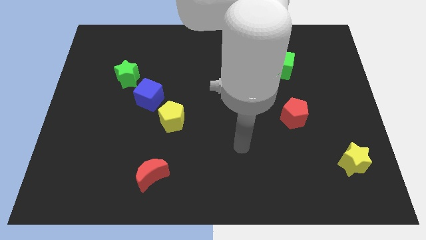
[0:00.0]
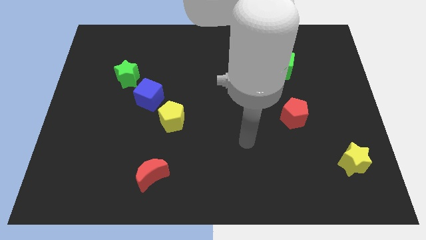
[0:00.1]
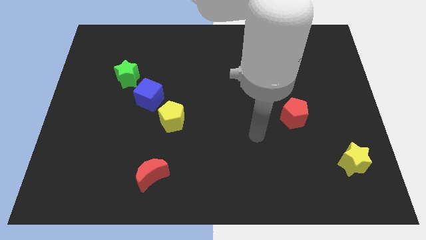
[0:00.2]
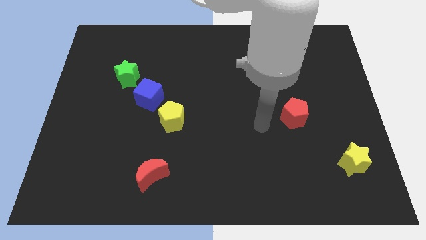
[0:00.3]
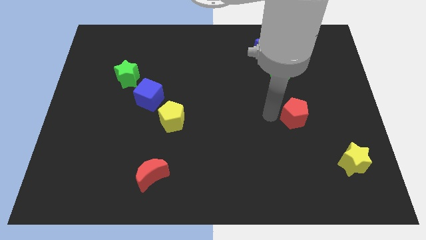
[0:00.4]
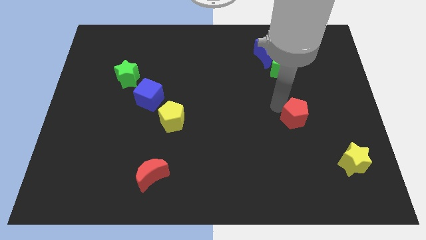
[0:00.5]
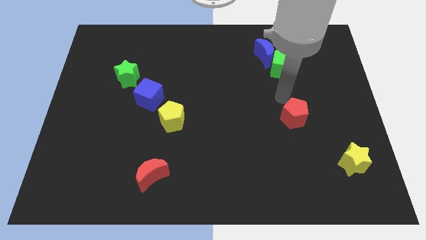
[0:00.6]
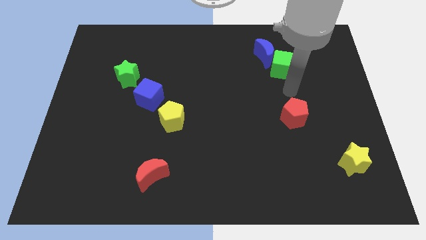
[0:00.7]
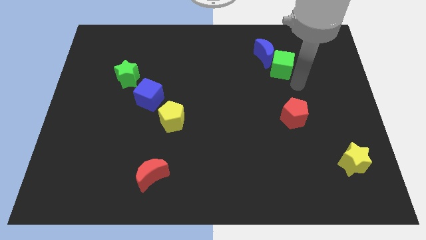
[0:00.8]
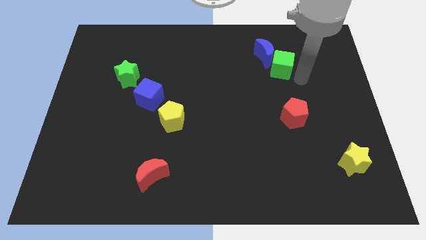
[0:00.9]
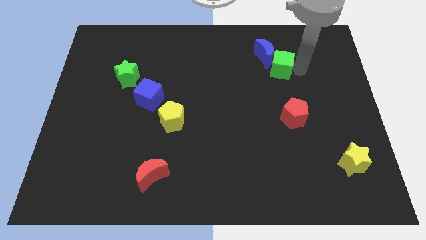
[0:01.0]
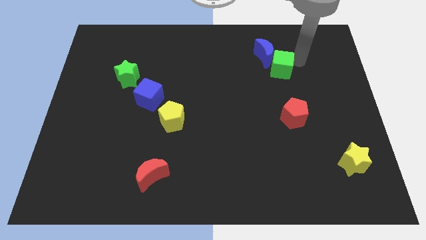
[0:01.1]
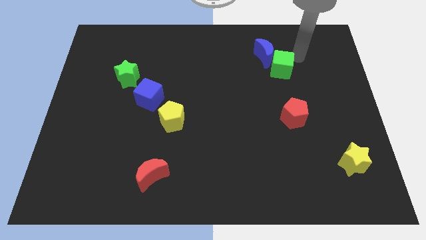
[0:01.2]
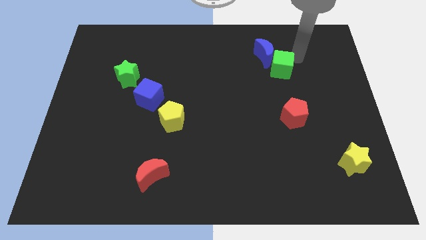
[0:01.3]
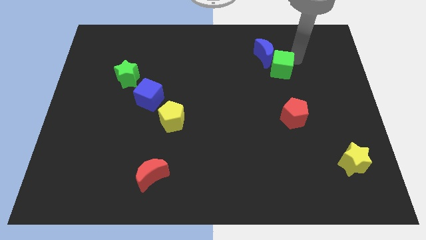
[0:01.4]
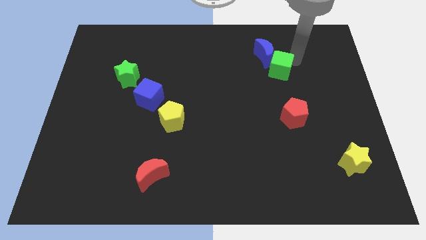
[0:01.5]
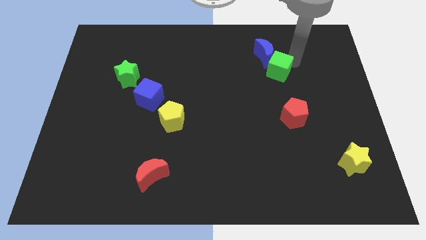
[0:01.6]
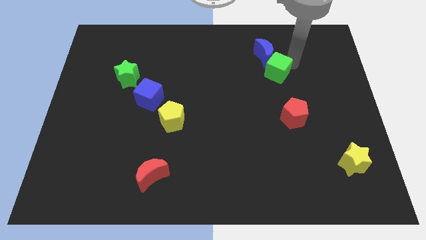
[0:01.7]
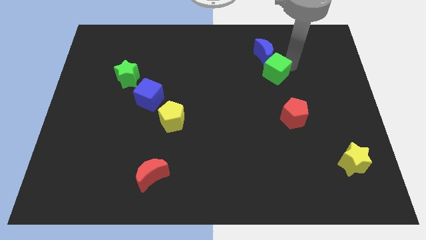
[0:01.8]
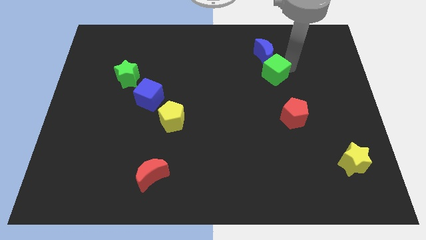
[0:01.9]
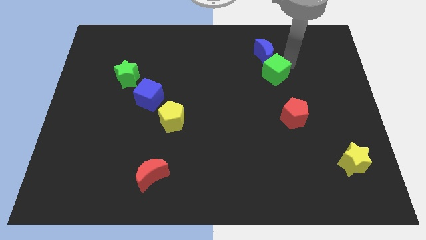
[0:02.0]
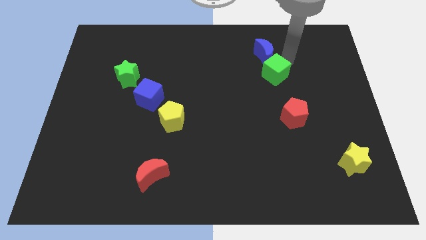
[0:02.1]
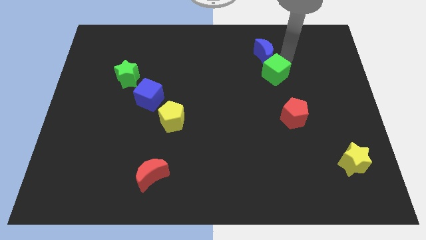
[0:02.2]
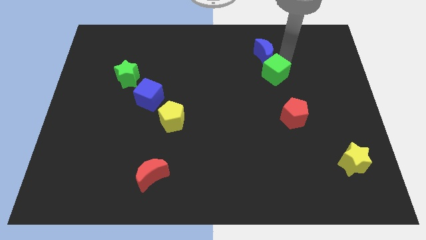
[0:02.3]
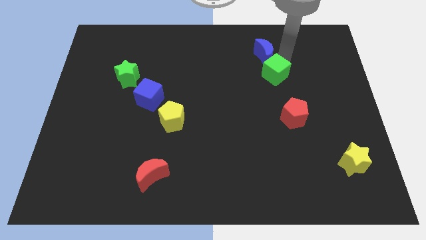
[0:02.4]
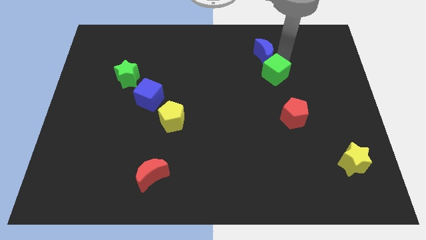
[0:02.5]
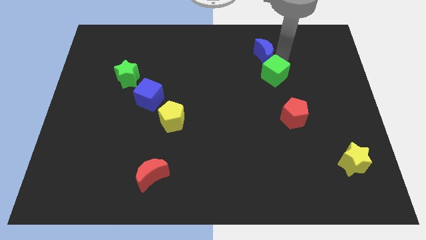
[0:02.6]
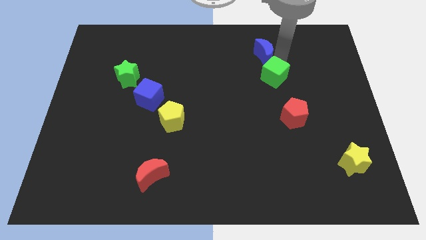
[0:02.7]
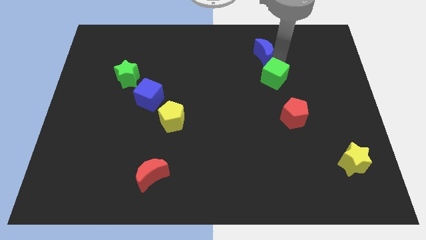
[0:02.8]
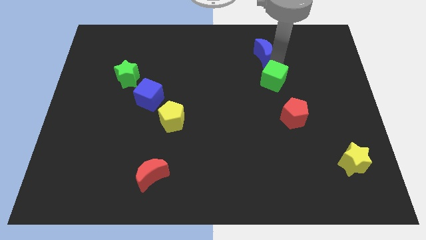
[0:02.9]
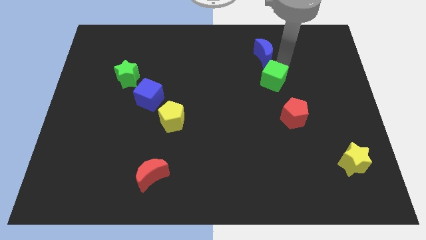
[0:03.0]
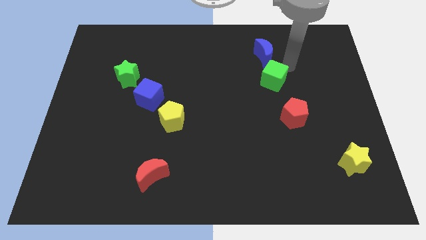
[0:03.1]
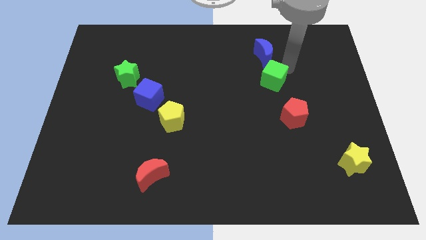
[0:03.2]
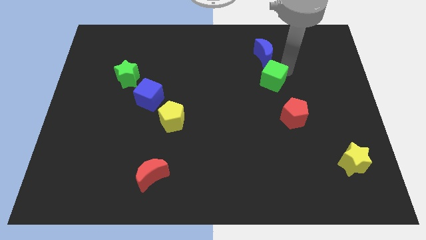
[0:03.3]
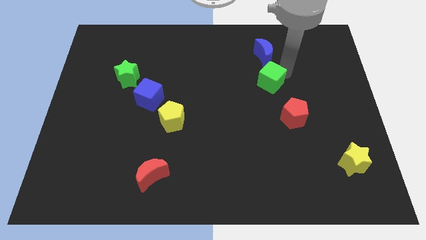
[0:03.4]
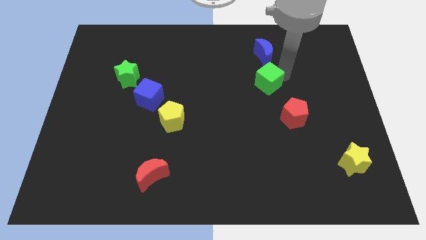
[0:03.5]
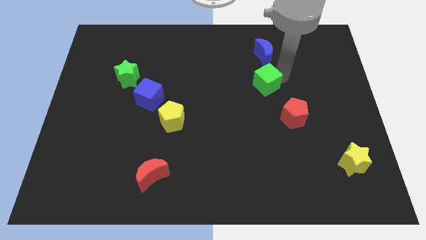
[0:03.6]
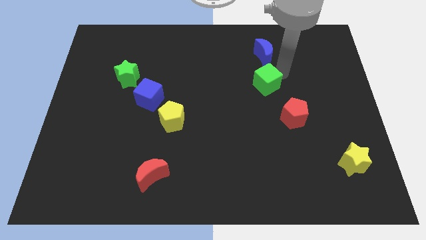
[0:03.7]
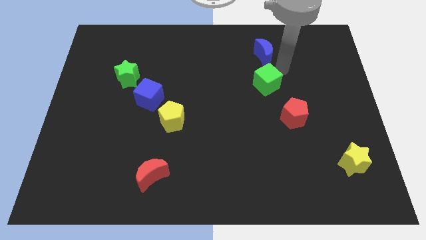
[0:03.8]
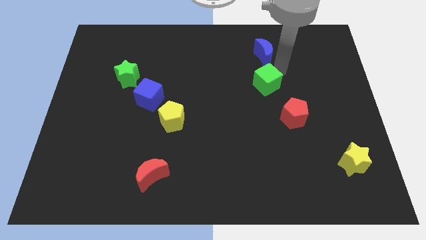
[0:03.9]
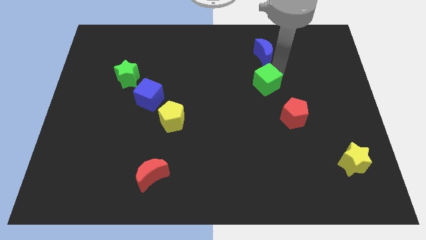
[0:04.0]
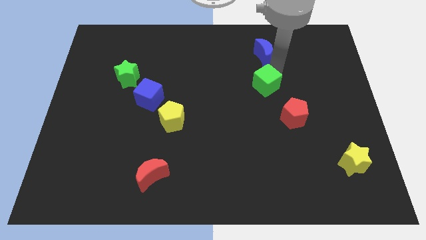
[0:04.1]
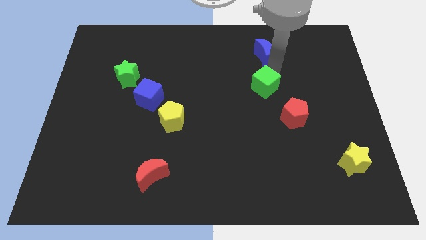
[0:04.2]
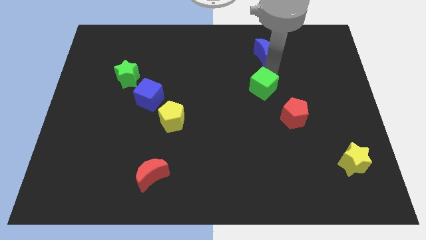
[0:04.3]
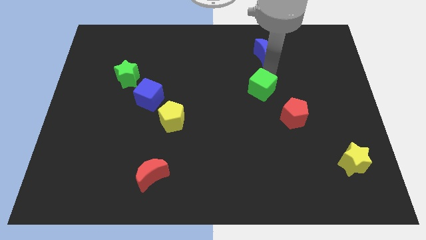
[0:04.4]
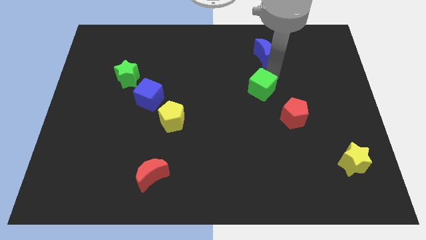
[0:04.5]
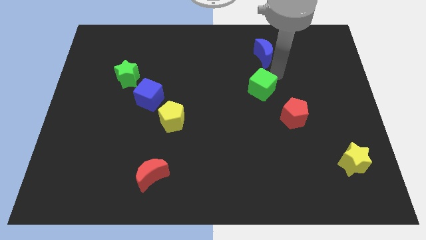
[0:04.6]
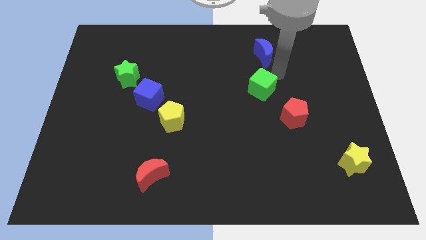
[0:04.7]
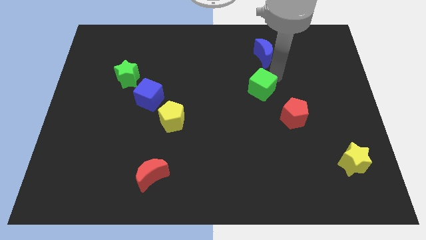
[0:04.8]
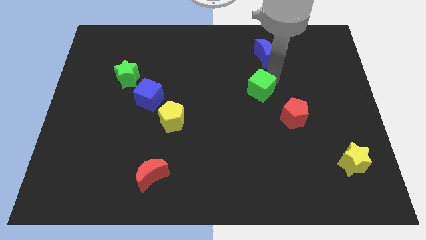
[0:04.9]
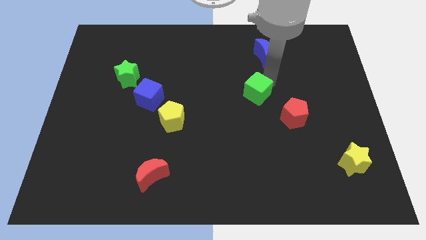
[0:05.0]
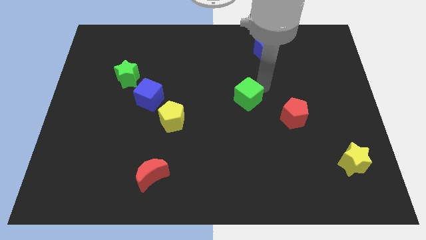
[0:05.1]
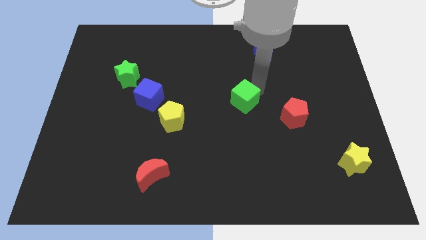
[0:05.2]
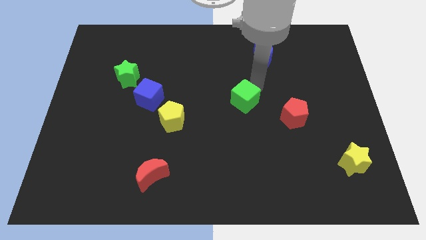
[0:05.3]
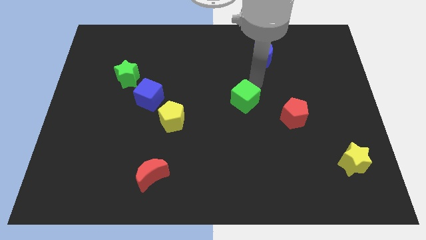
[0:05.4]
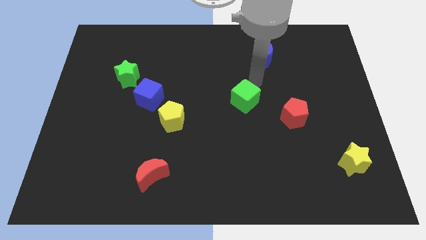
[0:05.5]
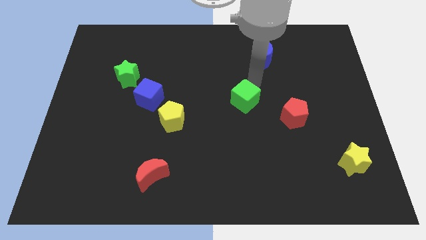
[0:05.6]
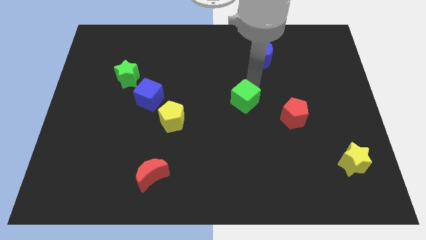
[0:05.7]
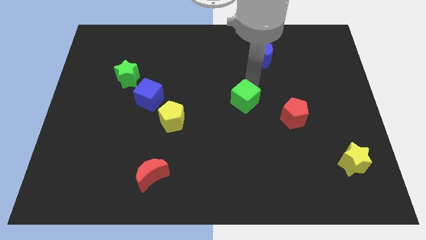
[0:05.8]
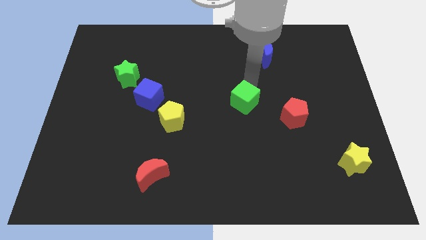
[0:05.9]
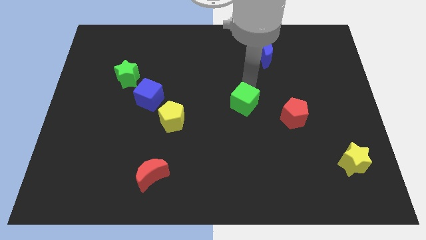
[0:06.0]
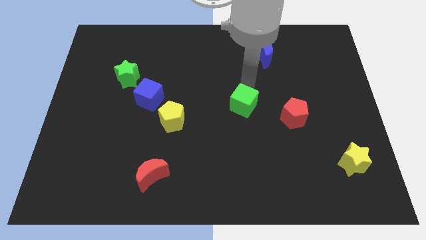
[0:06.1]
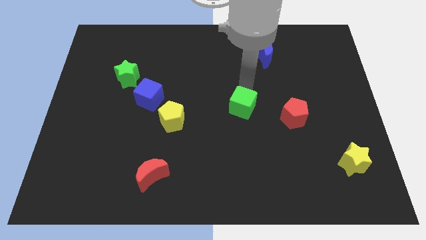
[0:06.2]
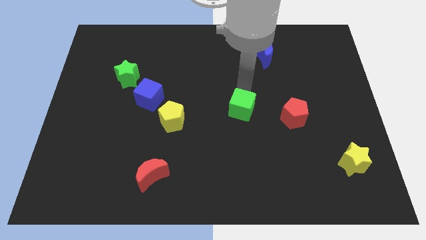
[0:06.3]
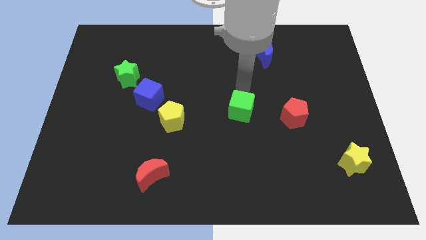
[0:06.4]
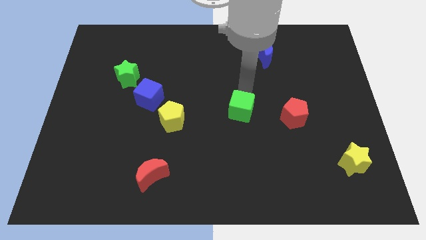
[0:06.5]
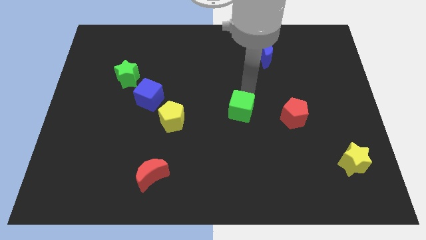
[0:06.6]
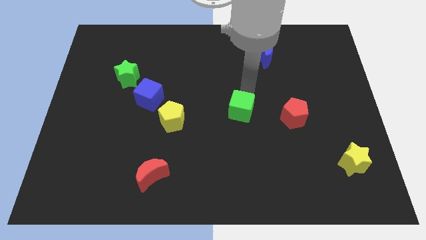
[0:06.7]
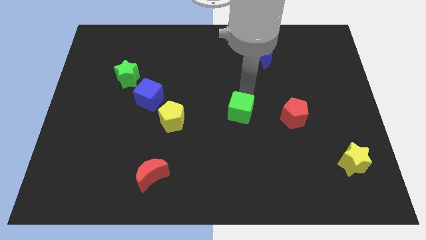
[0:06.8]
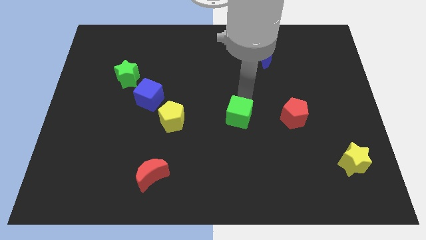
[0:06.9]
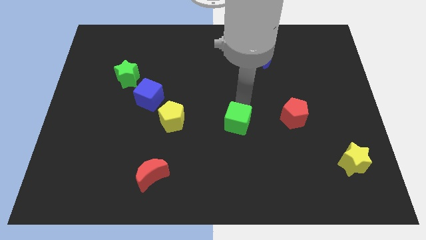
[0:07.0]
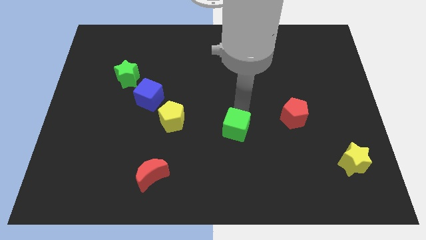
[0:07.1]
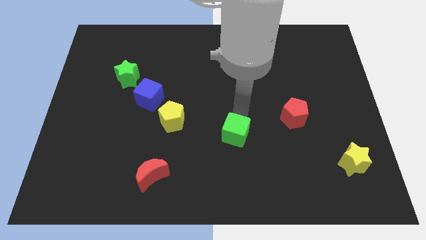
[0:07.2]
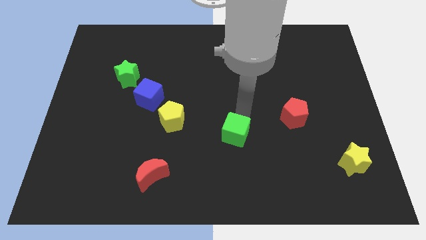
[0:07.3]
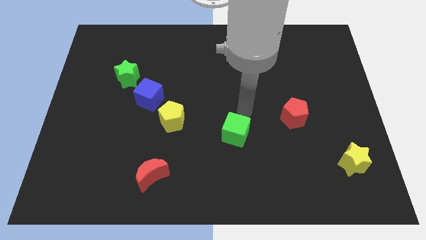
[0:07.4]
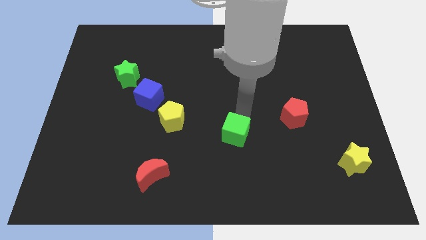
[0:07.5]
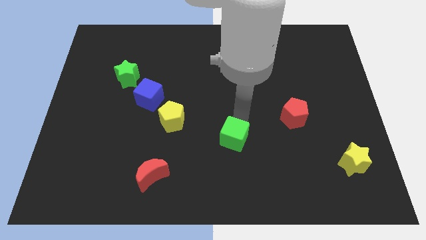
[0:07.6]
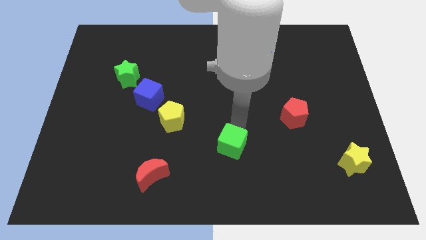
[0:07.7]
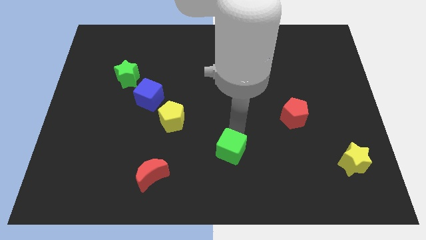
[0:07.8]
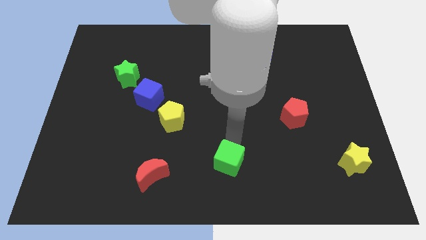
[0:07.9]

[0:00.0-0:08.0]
move the green cube to the bottom side
